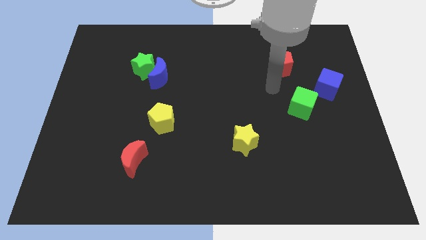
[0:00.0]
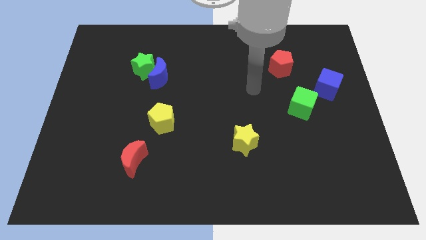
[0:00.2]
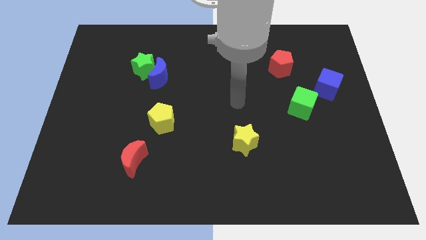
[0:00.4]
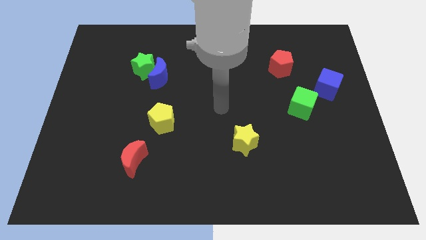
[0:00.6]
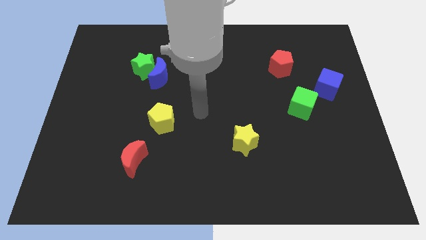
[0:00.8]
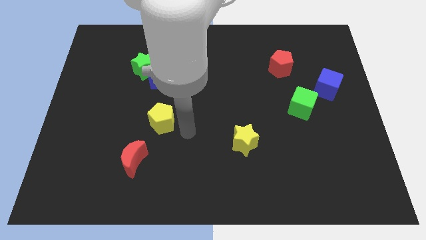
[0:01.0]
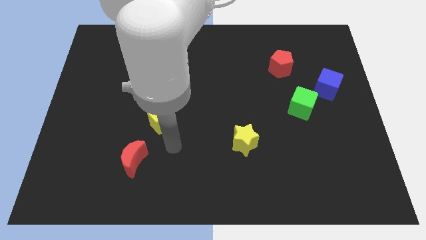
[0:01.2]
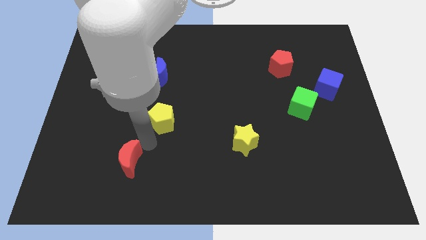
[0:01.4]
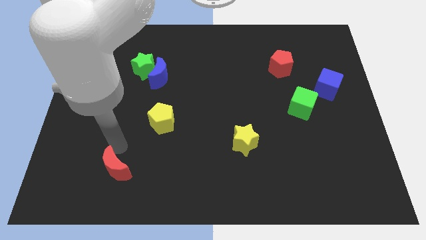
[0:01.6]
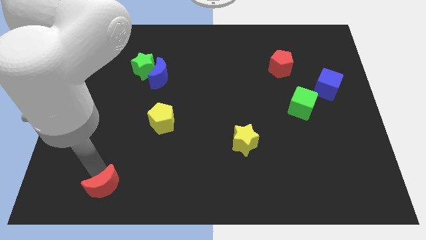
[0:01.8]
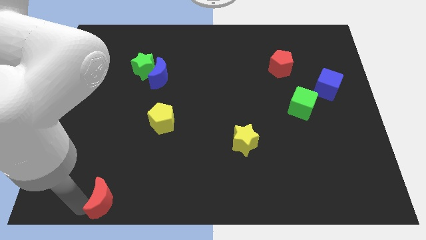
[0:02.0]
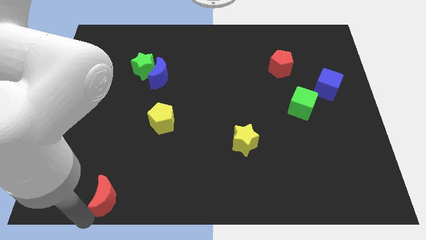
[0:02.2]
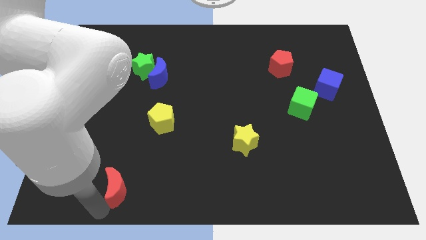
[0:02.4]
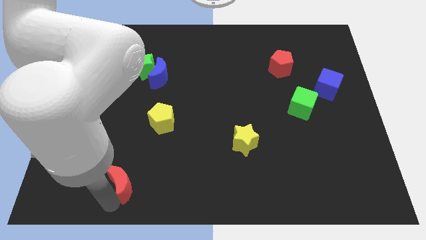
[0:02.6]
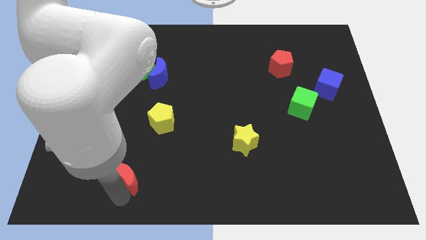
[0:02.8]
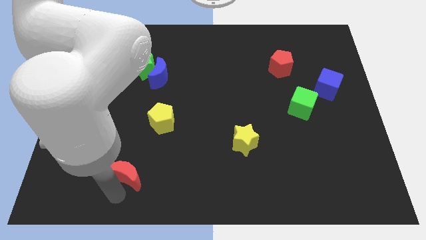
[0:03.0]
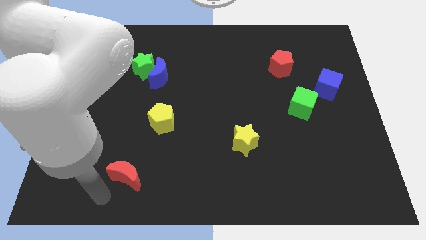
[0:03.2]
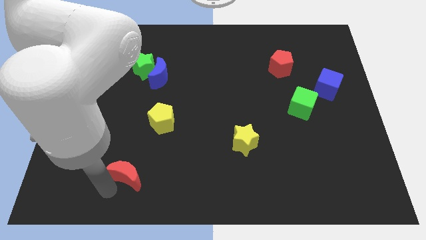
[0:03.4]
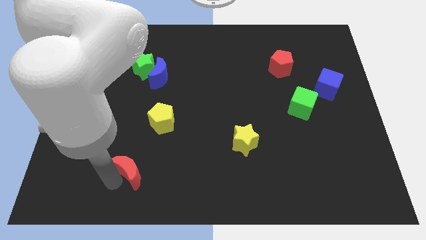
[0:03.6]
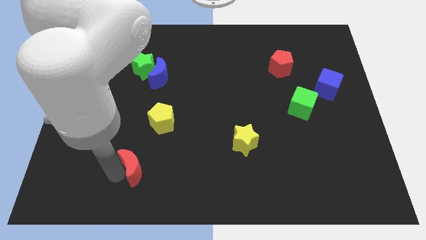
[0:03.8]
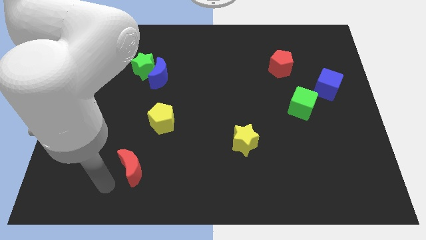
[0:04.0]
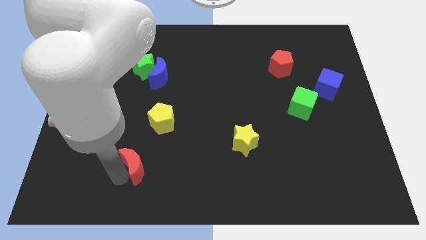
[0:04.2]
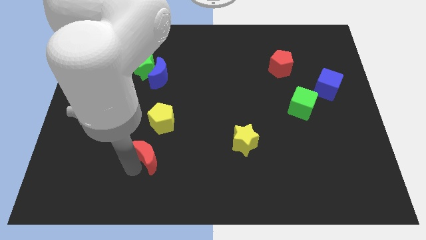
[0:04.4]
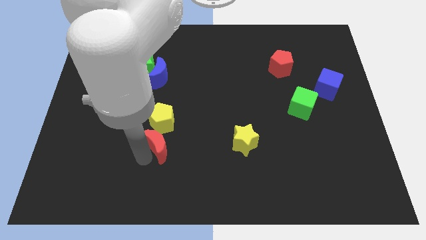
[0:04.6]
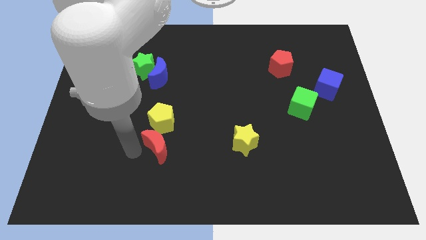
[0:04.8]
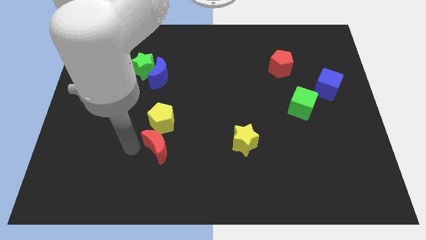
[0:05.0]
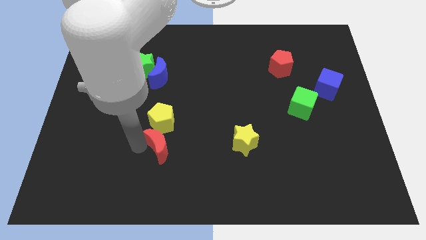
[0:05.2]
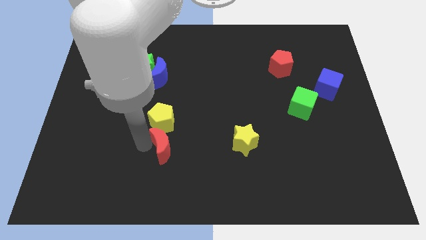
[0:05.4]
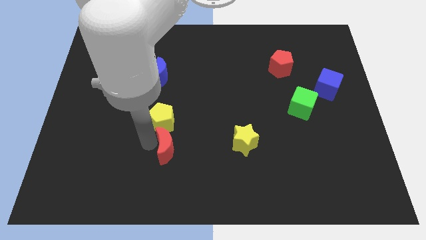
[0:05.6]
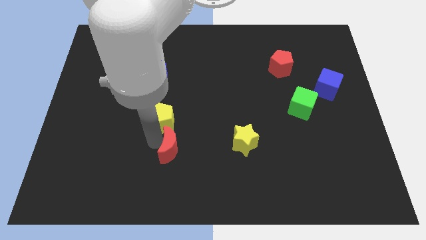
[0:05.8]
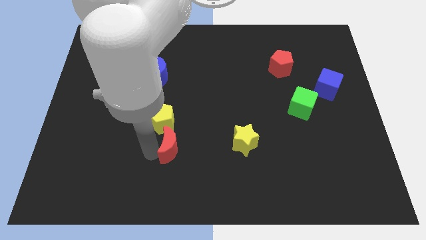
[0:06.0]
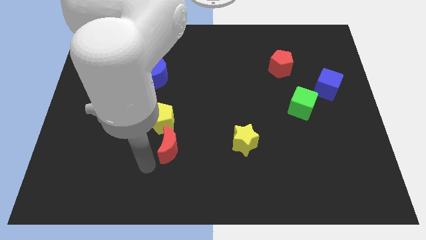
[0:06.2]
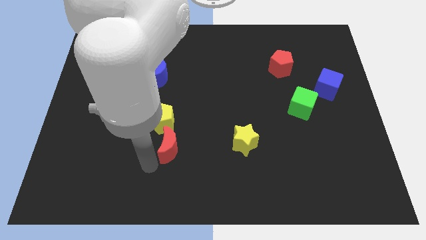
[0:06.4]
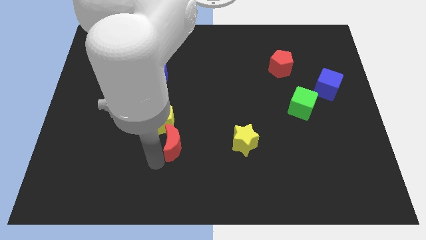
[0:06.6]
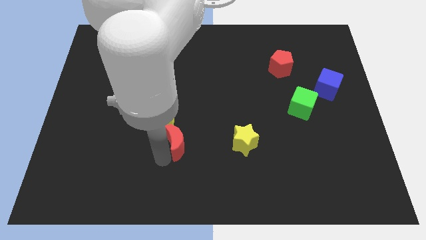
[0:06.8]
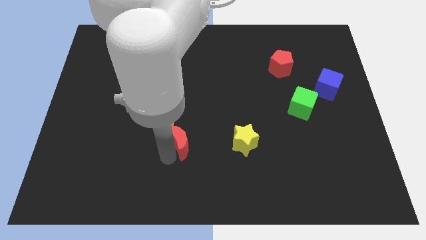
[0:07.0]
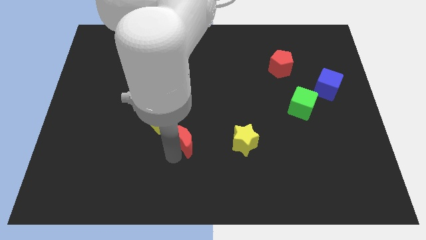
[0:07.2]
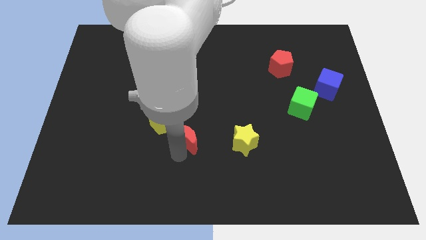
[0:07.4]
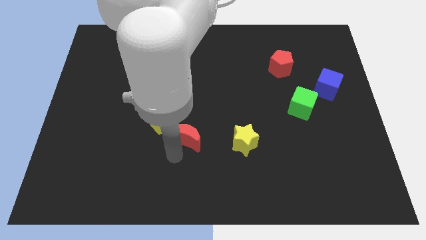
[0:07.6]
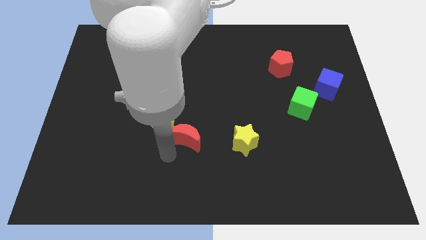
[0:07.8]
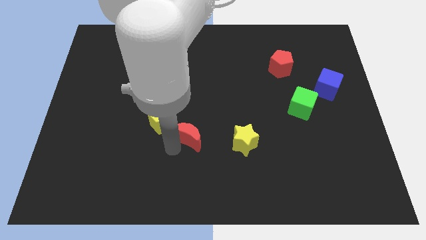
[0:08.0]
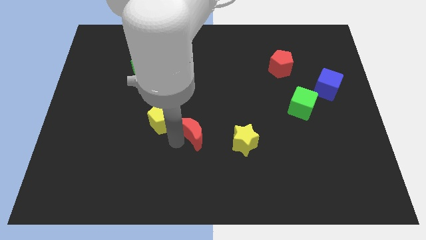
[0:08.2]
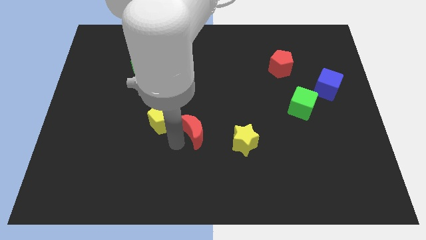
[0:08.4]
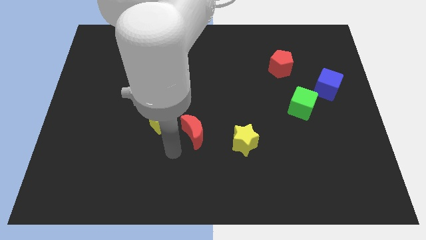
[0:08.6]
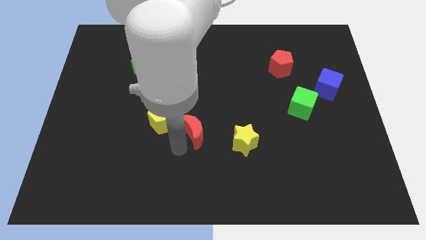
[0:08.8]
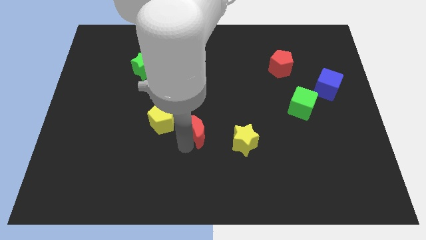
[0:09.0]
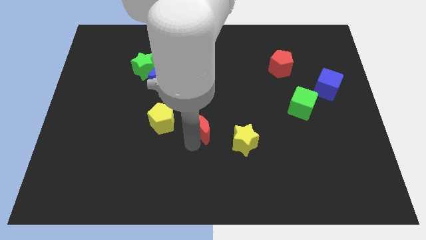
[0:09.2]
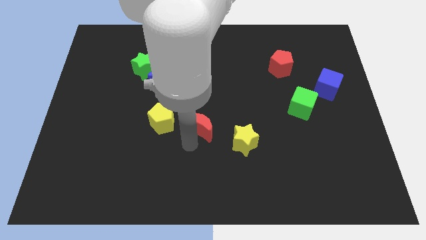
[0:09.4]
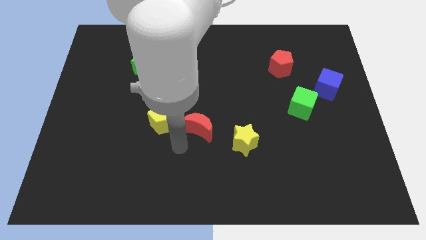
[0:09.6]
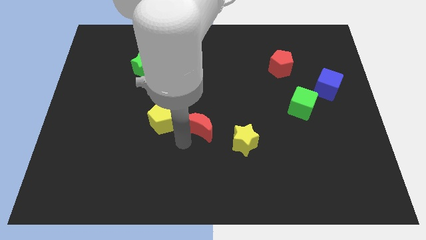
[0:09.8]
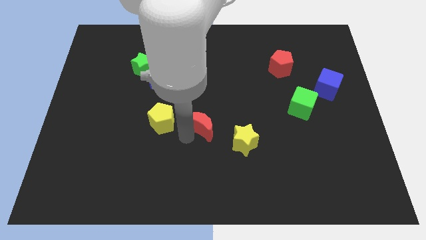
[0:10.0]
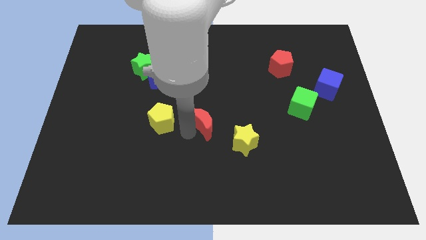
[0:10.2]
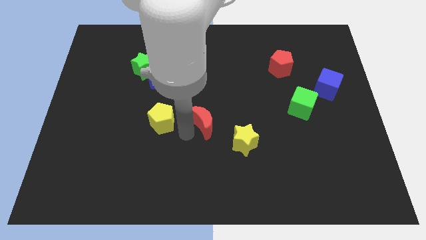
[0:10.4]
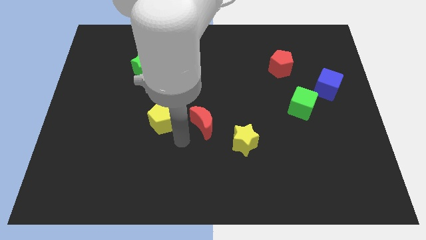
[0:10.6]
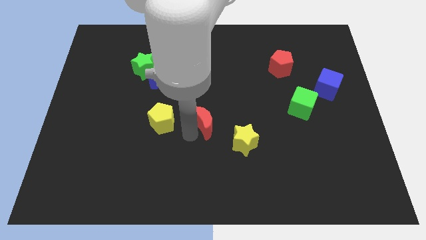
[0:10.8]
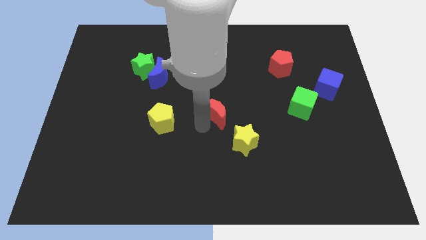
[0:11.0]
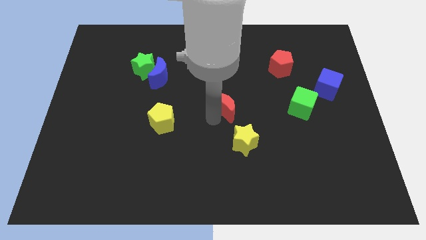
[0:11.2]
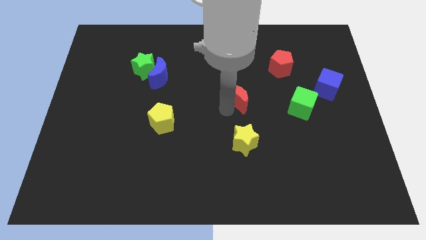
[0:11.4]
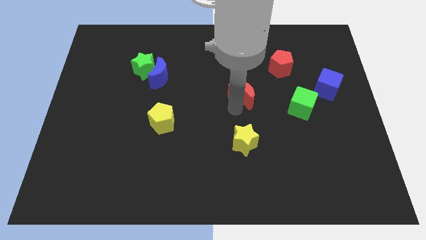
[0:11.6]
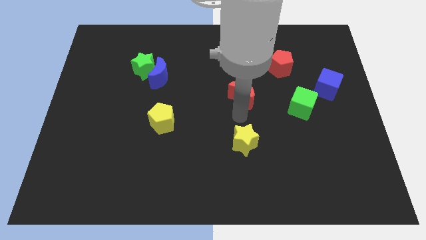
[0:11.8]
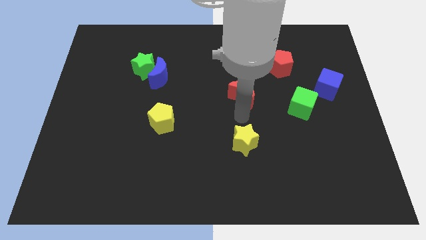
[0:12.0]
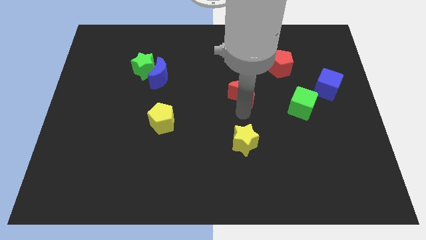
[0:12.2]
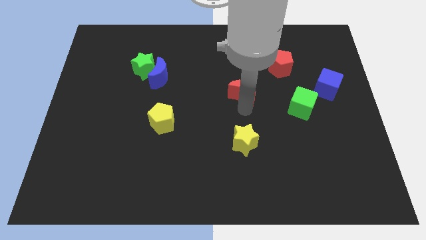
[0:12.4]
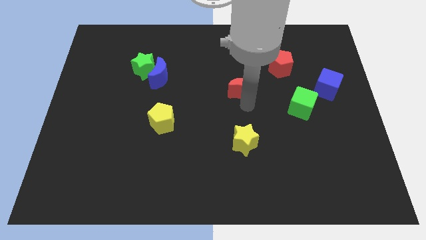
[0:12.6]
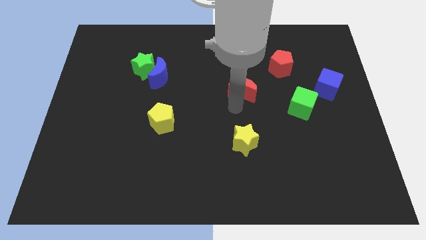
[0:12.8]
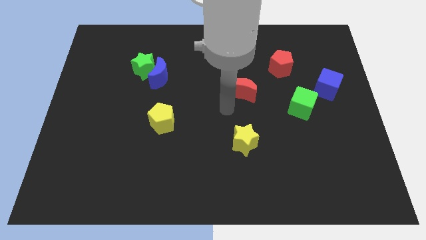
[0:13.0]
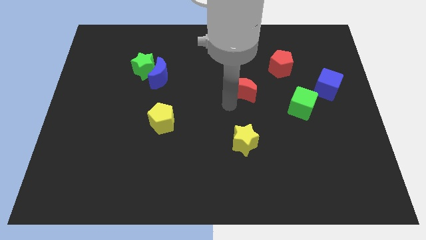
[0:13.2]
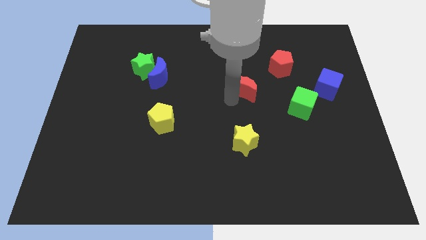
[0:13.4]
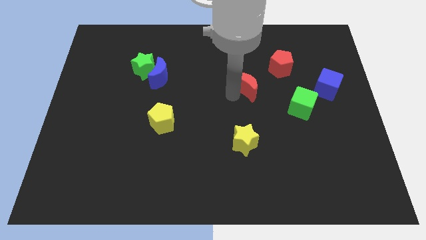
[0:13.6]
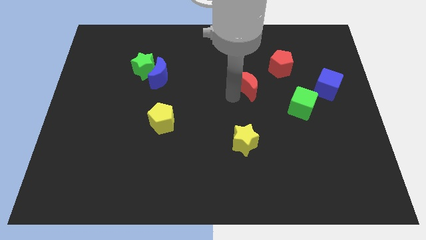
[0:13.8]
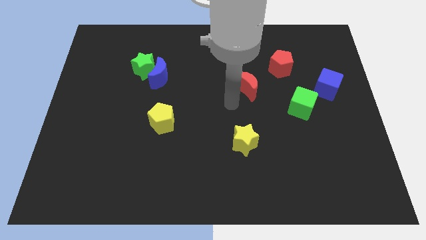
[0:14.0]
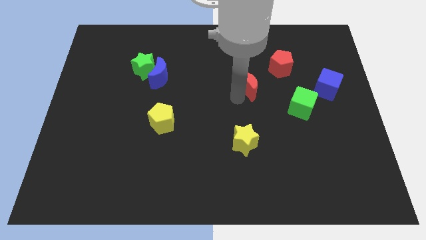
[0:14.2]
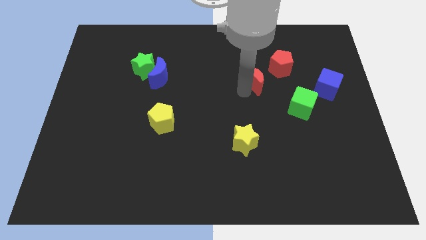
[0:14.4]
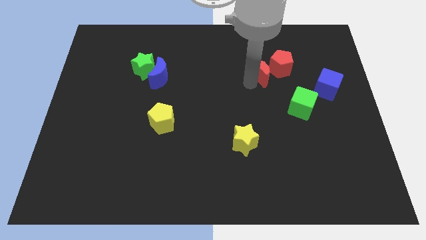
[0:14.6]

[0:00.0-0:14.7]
push the red moon next to the red pentagon
